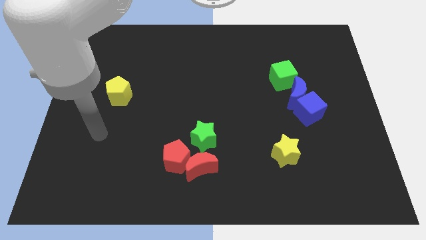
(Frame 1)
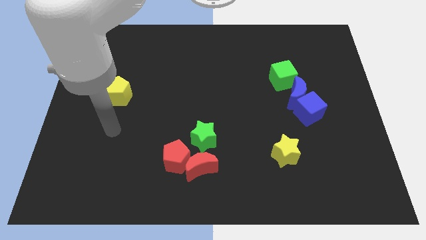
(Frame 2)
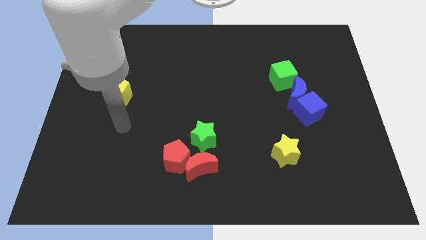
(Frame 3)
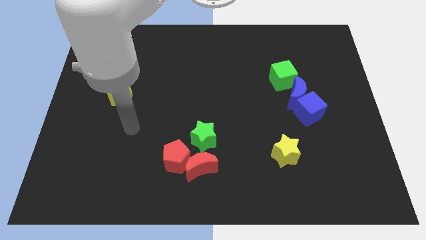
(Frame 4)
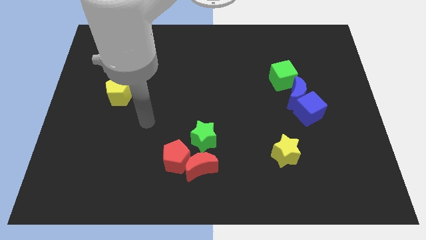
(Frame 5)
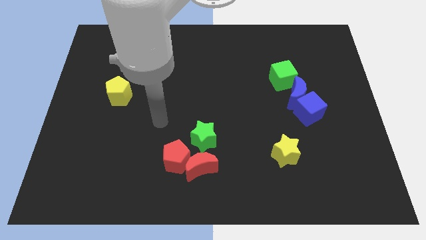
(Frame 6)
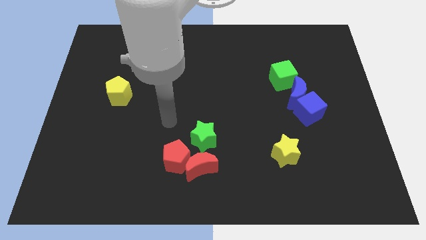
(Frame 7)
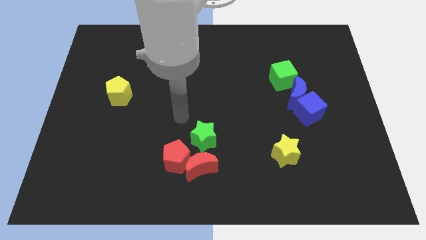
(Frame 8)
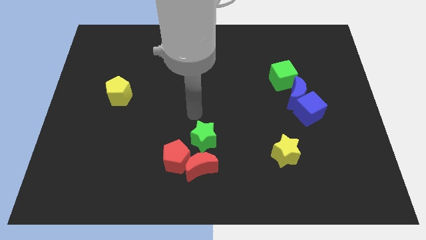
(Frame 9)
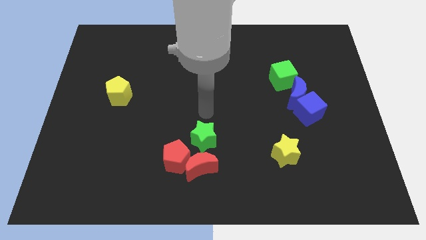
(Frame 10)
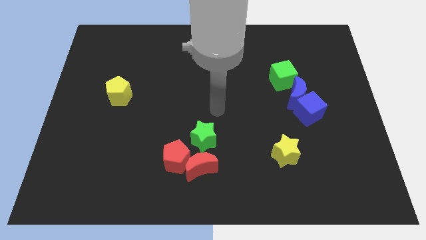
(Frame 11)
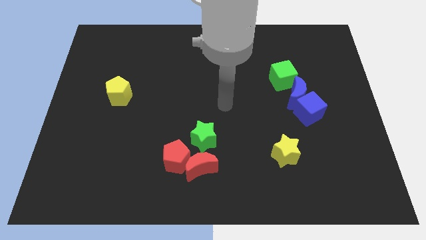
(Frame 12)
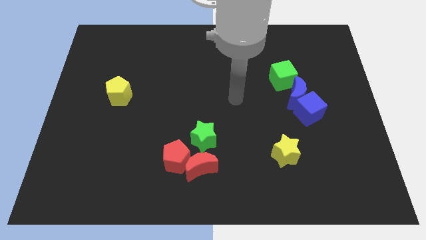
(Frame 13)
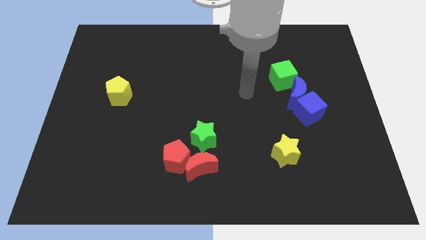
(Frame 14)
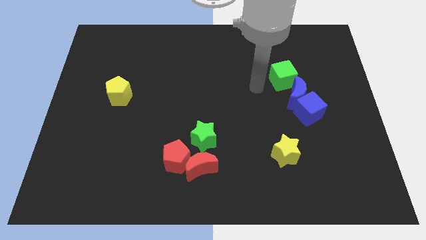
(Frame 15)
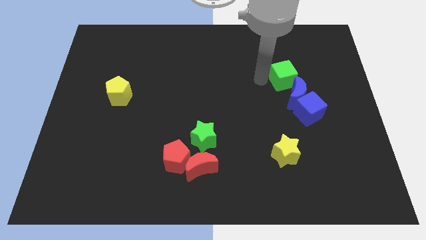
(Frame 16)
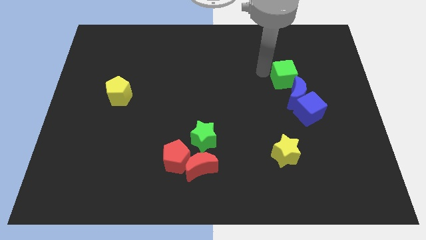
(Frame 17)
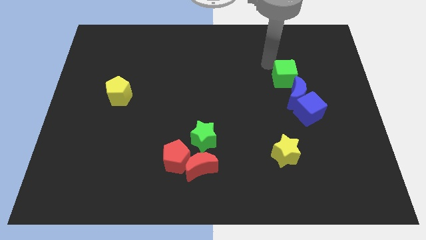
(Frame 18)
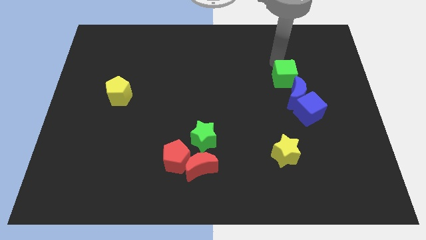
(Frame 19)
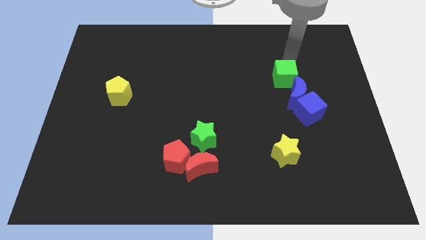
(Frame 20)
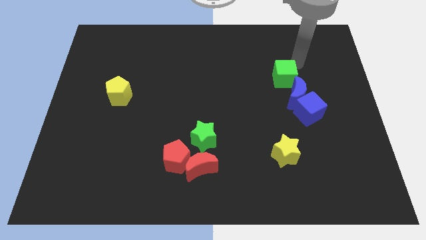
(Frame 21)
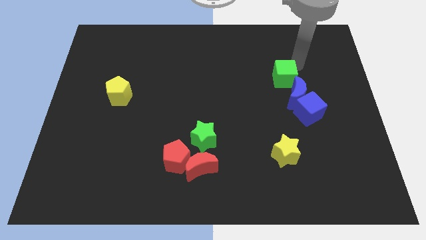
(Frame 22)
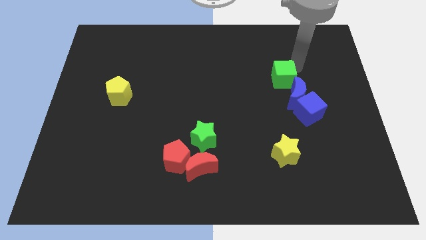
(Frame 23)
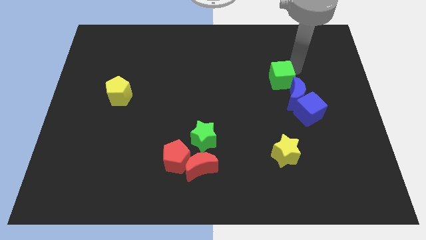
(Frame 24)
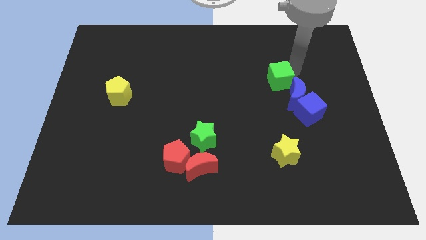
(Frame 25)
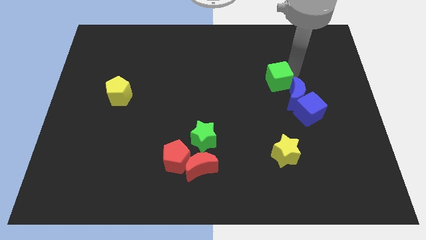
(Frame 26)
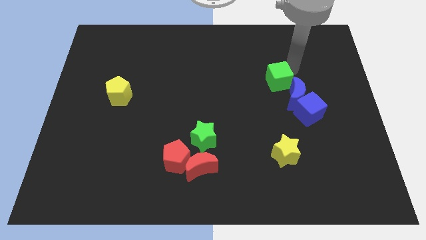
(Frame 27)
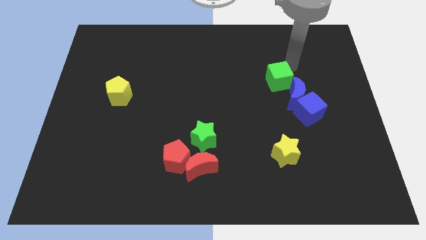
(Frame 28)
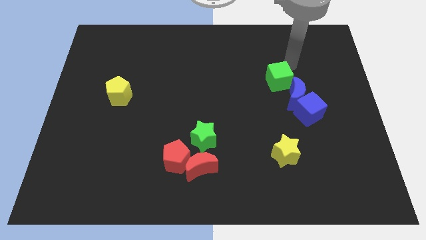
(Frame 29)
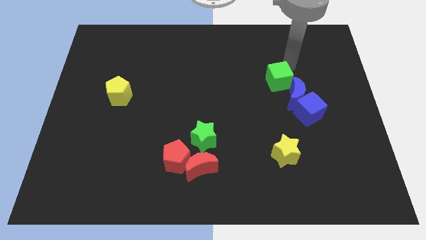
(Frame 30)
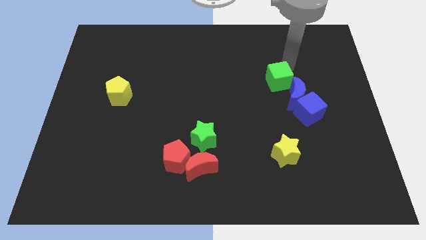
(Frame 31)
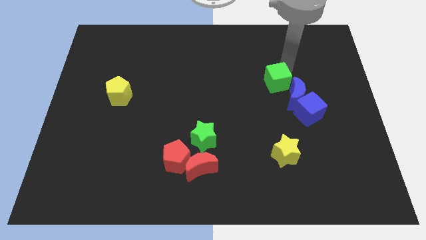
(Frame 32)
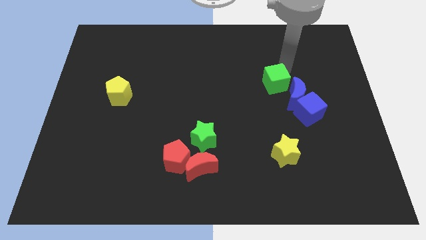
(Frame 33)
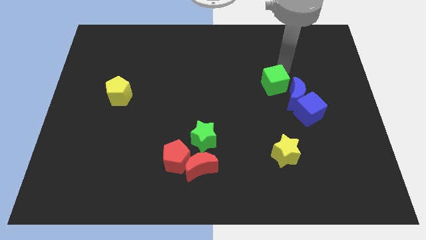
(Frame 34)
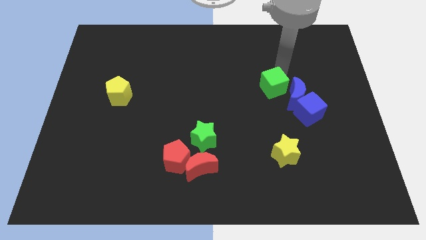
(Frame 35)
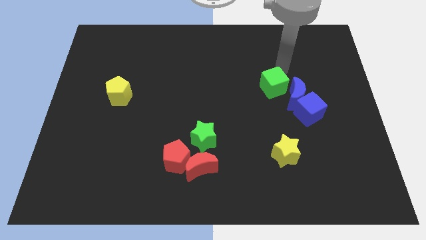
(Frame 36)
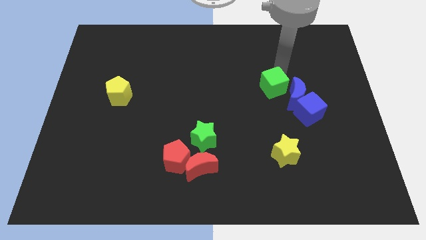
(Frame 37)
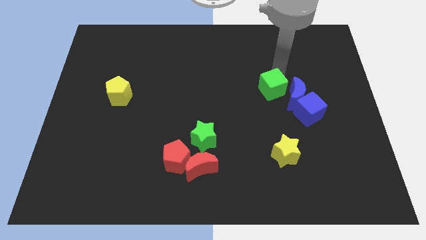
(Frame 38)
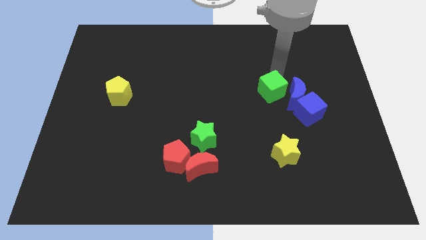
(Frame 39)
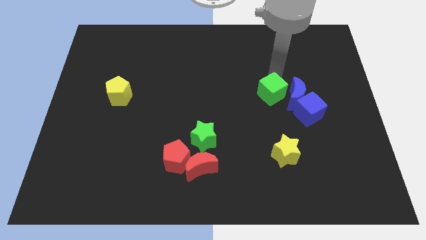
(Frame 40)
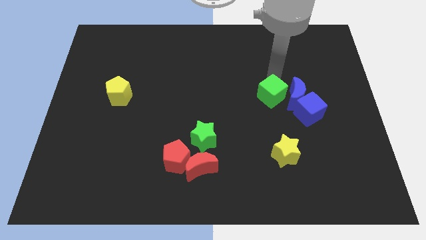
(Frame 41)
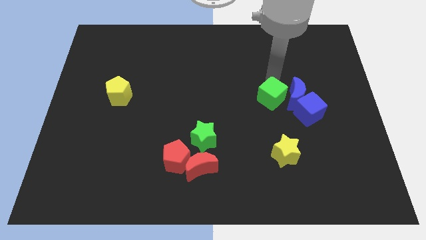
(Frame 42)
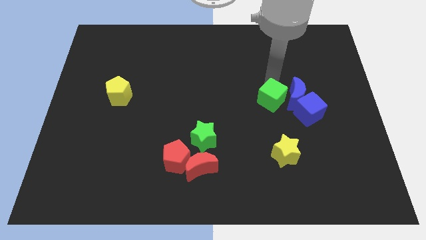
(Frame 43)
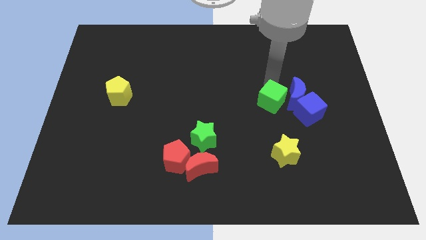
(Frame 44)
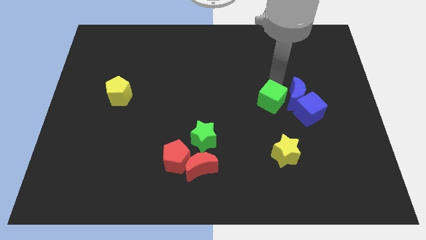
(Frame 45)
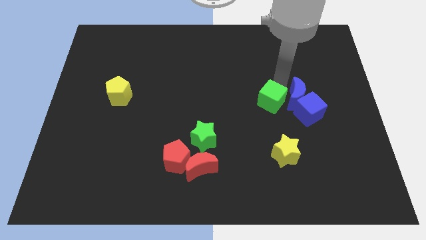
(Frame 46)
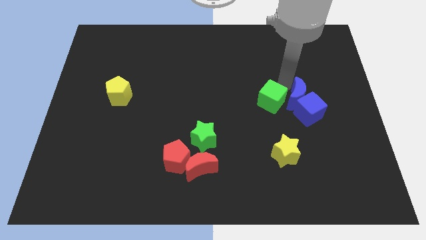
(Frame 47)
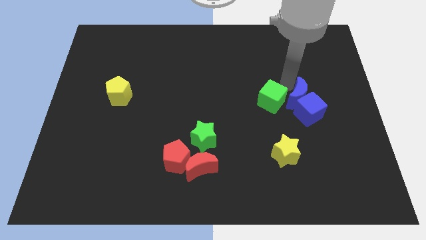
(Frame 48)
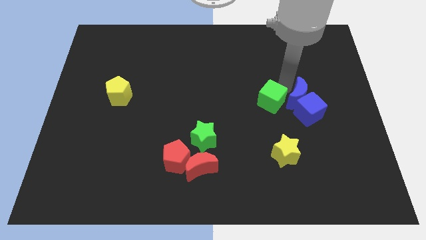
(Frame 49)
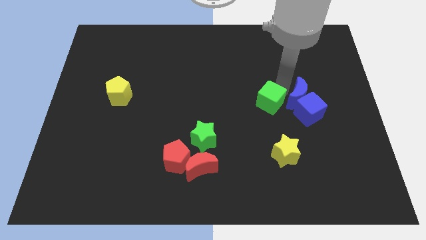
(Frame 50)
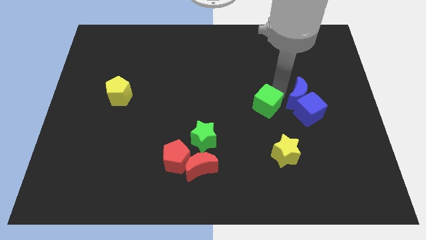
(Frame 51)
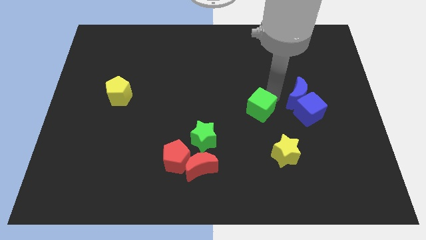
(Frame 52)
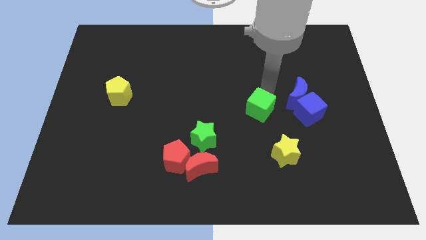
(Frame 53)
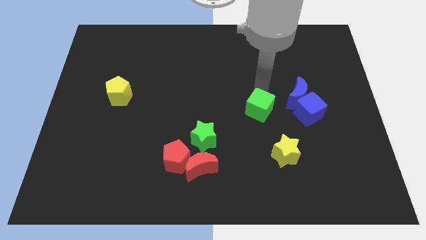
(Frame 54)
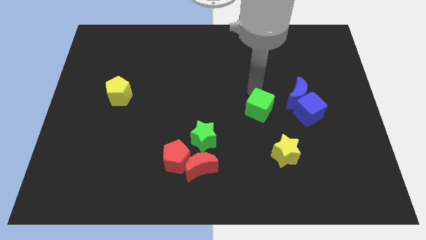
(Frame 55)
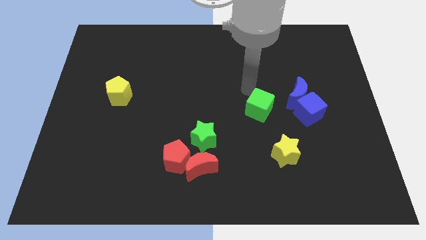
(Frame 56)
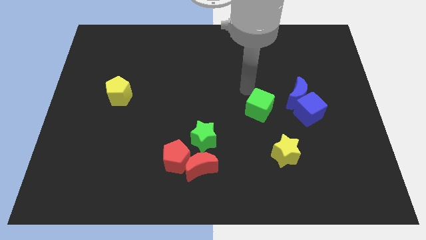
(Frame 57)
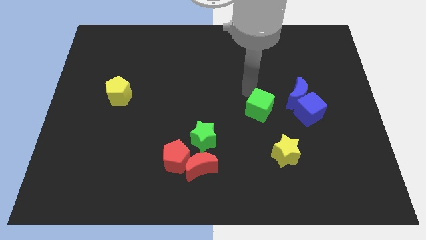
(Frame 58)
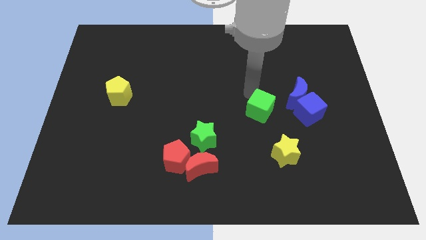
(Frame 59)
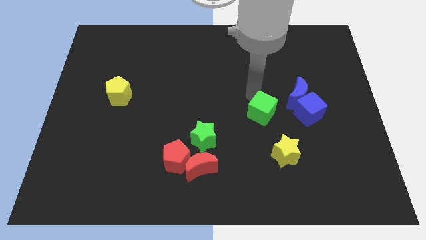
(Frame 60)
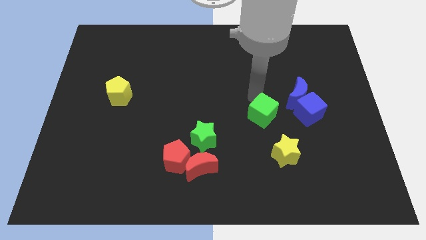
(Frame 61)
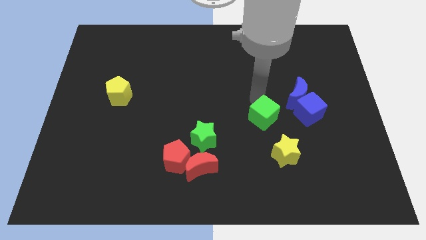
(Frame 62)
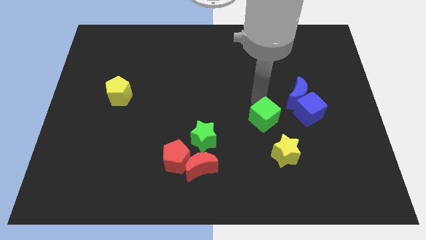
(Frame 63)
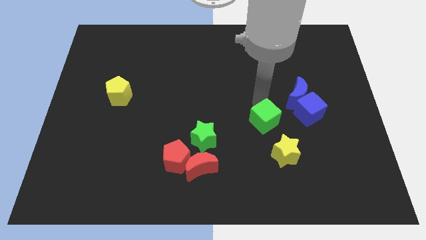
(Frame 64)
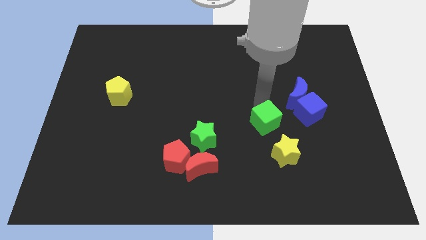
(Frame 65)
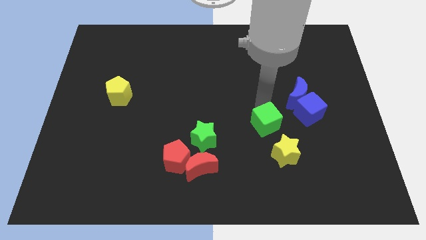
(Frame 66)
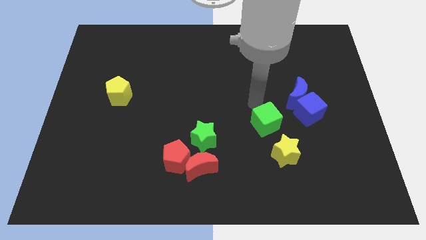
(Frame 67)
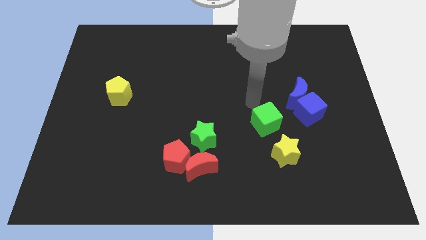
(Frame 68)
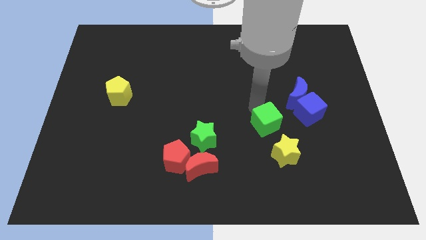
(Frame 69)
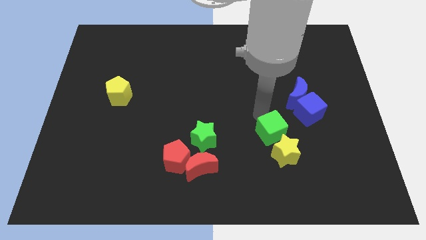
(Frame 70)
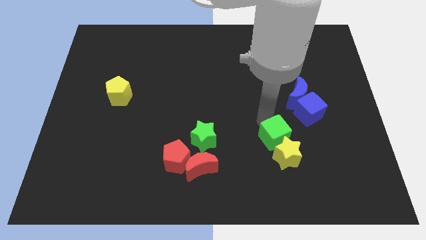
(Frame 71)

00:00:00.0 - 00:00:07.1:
push the green cube close to the yellow star
